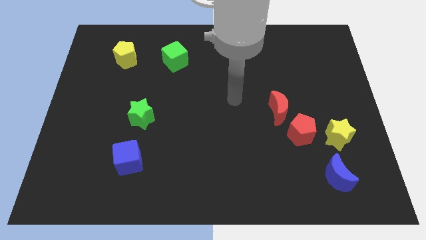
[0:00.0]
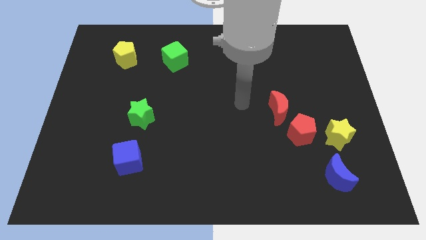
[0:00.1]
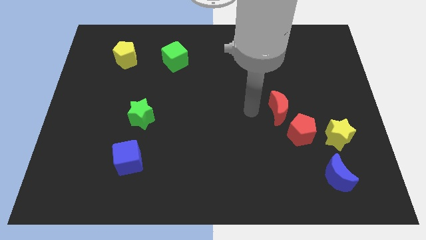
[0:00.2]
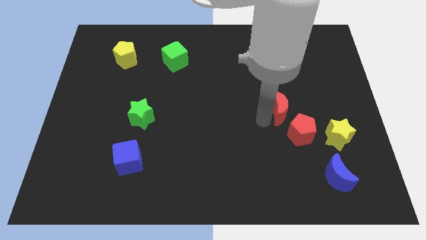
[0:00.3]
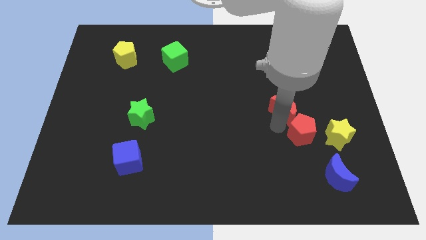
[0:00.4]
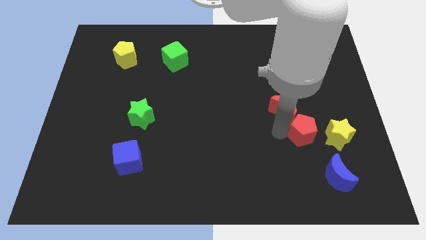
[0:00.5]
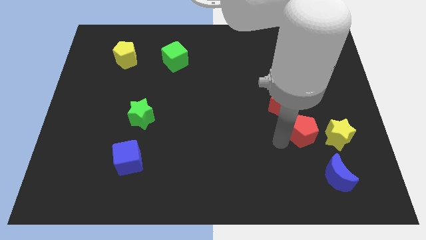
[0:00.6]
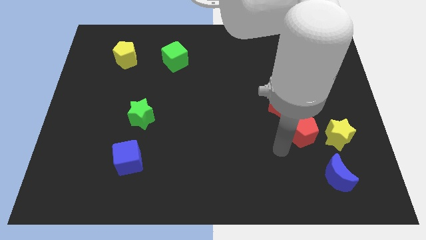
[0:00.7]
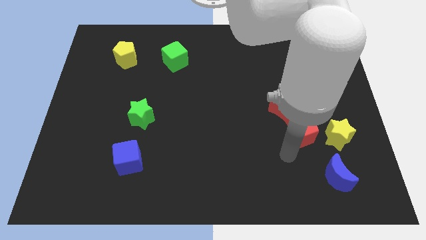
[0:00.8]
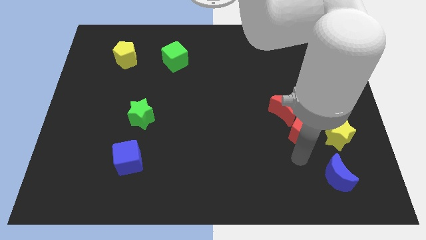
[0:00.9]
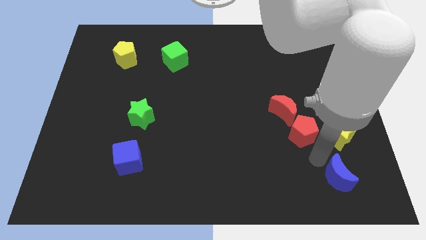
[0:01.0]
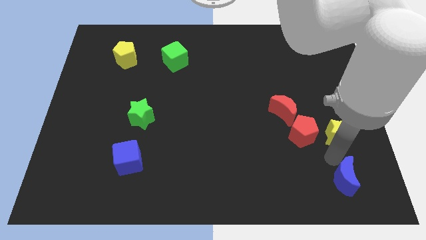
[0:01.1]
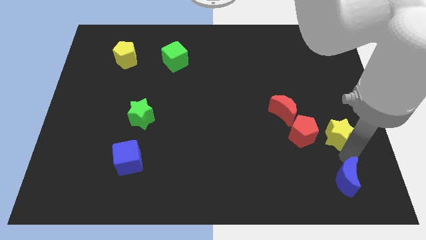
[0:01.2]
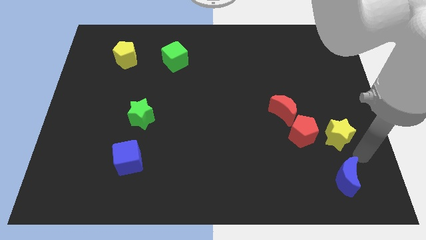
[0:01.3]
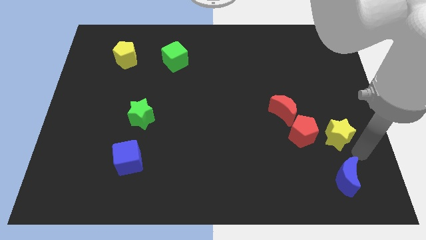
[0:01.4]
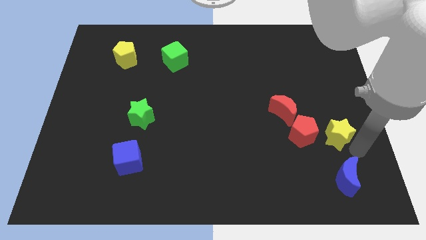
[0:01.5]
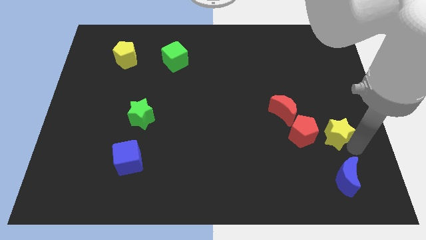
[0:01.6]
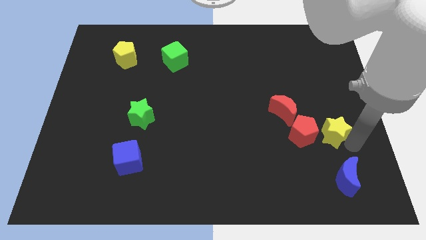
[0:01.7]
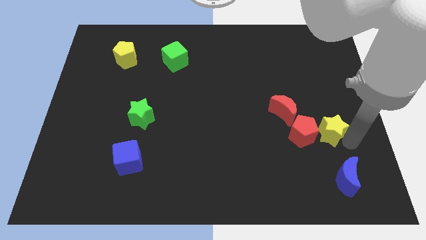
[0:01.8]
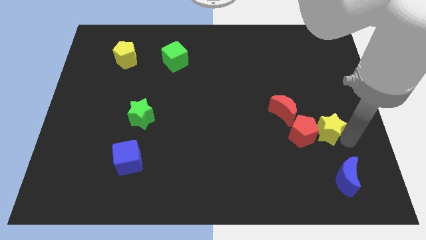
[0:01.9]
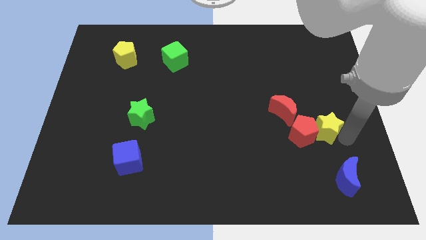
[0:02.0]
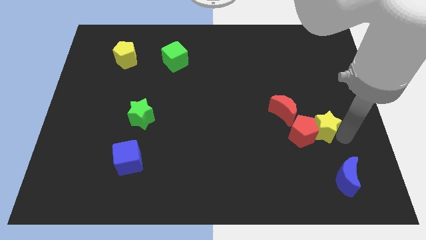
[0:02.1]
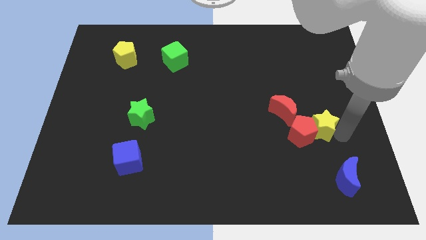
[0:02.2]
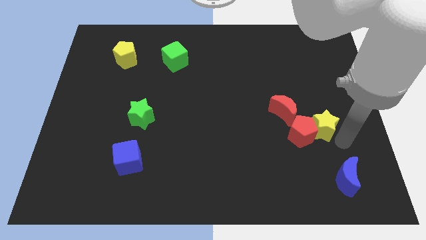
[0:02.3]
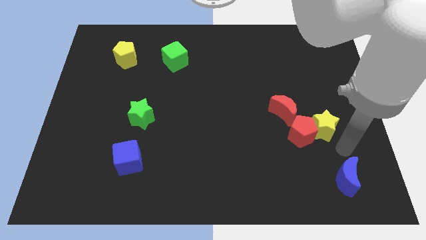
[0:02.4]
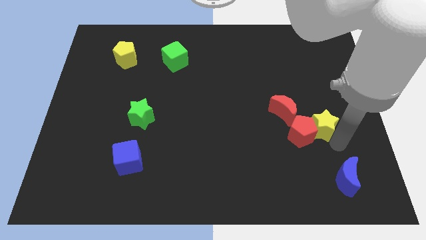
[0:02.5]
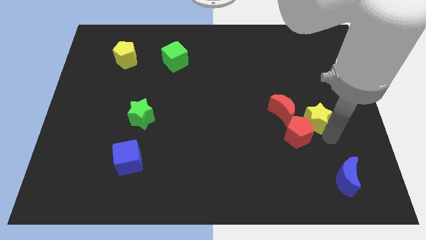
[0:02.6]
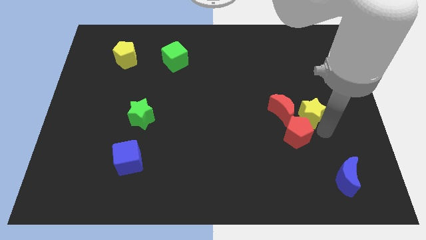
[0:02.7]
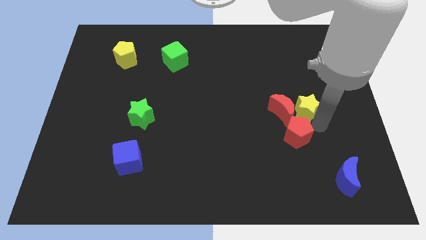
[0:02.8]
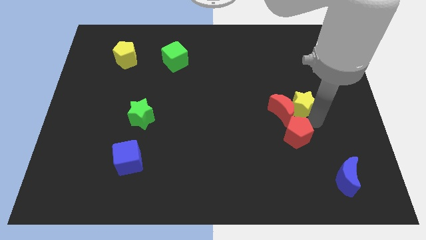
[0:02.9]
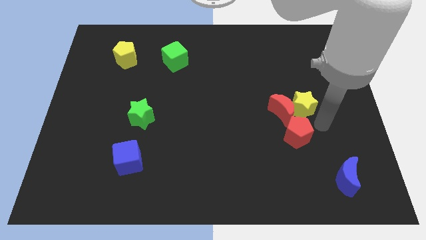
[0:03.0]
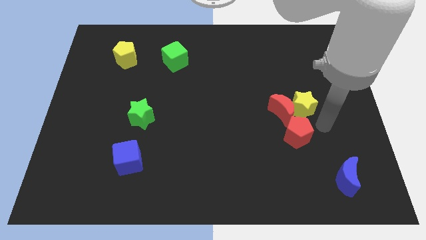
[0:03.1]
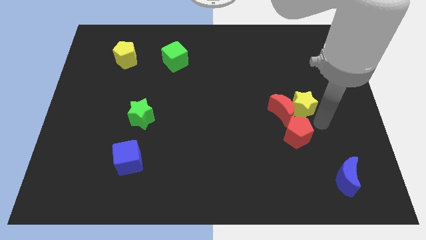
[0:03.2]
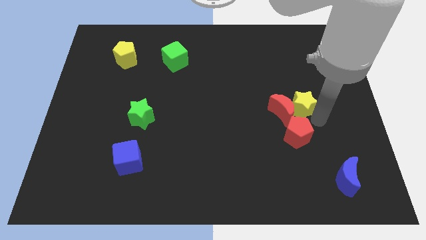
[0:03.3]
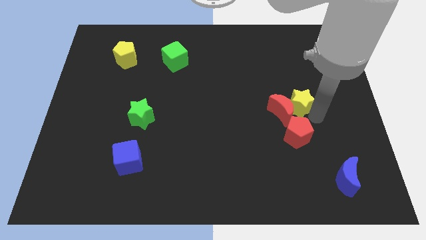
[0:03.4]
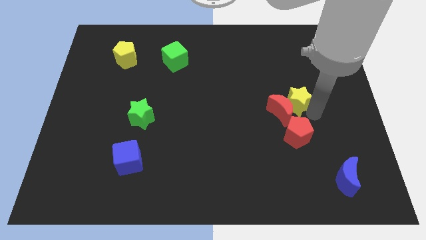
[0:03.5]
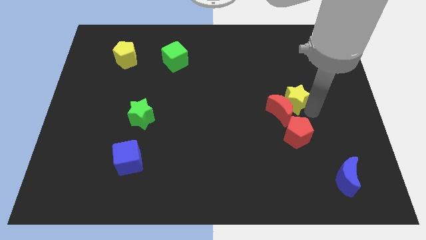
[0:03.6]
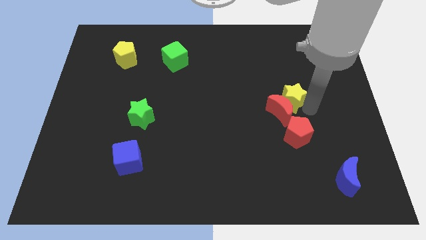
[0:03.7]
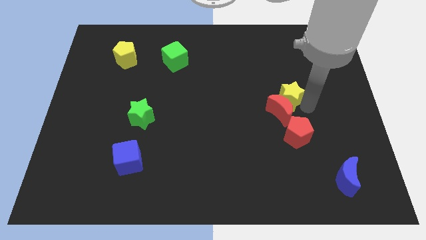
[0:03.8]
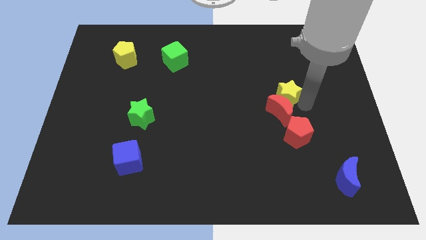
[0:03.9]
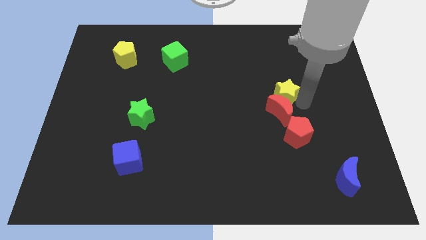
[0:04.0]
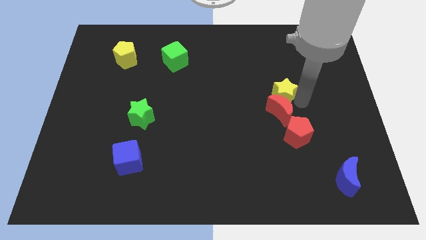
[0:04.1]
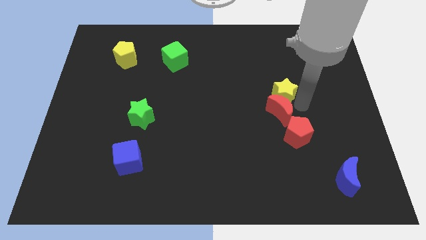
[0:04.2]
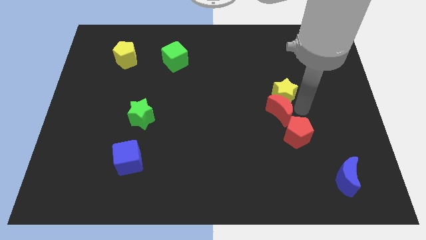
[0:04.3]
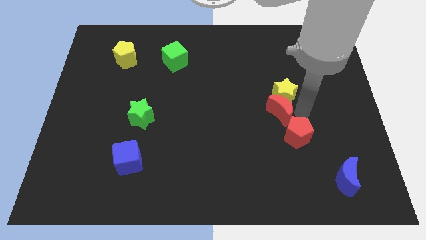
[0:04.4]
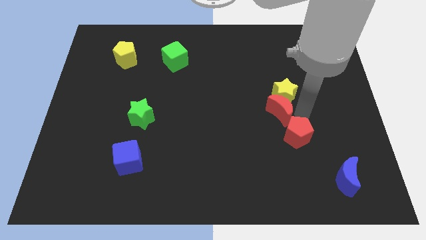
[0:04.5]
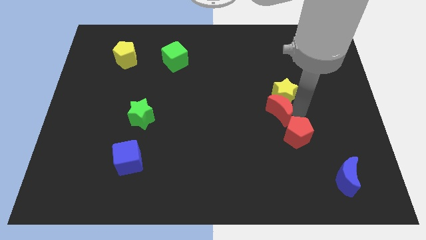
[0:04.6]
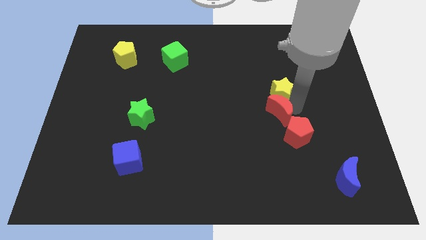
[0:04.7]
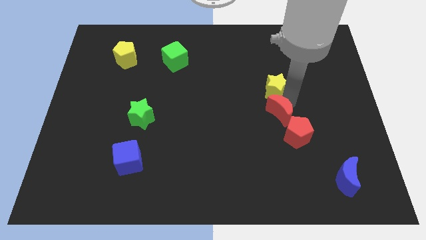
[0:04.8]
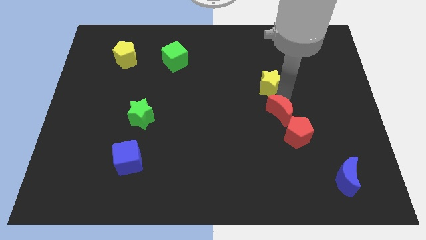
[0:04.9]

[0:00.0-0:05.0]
slide the yellow star up and then left

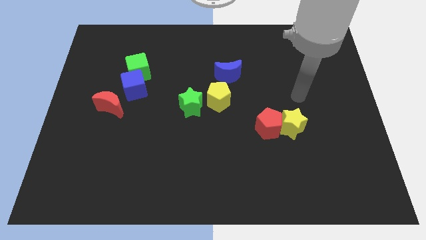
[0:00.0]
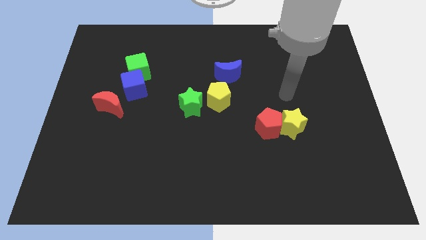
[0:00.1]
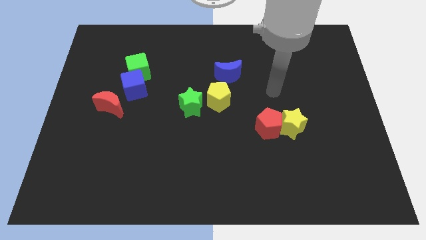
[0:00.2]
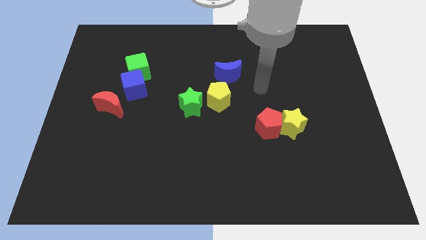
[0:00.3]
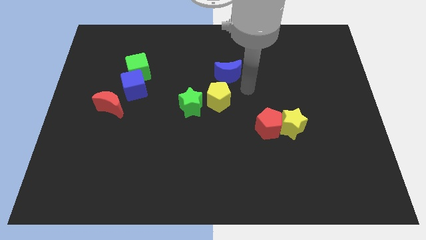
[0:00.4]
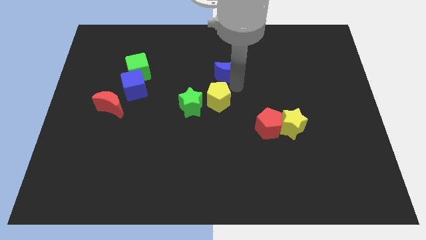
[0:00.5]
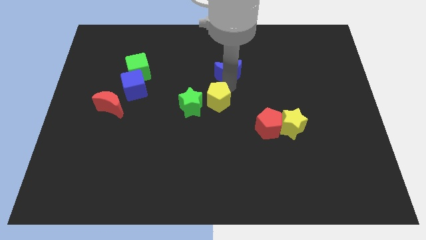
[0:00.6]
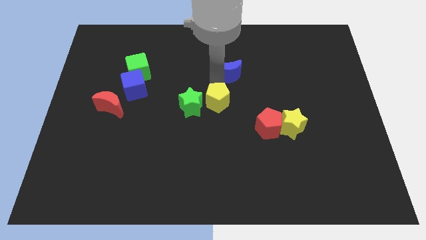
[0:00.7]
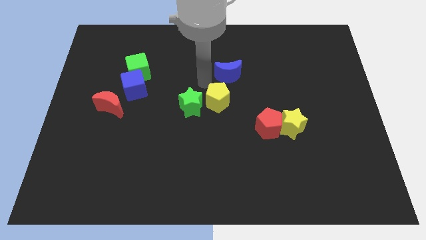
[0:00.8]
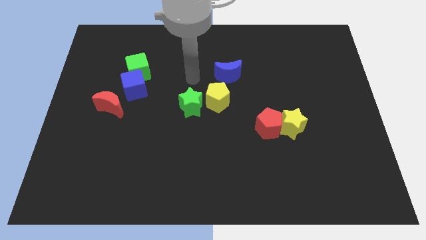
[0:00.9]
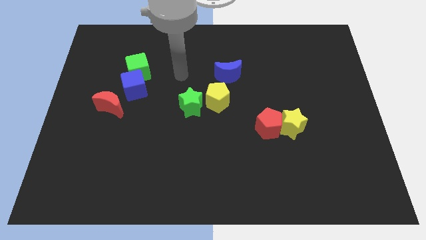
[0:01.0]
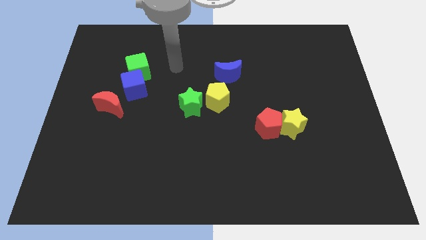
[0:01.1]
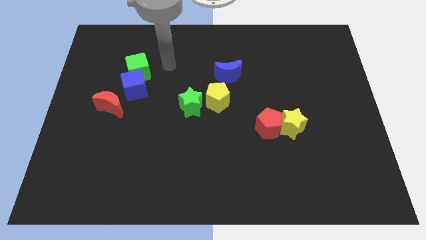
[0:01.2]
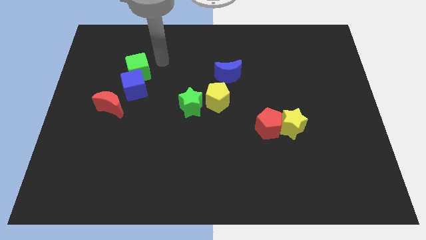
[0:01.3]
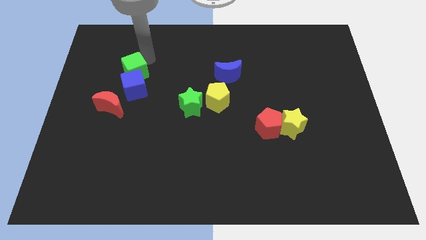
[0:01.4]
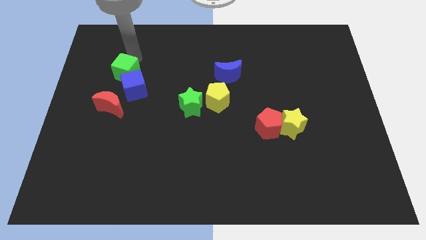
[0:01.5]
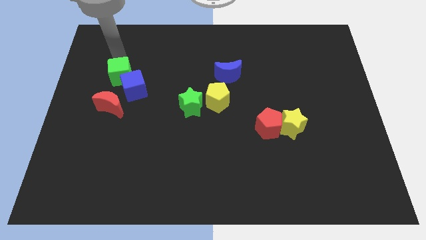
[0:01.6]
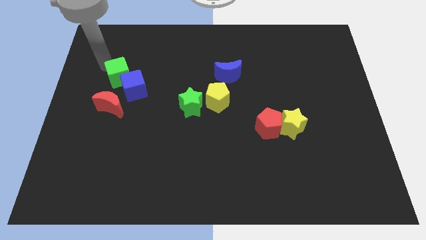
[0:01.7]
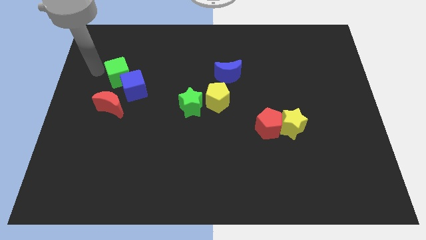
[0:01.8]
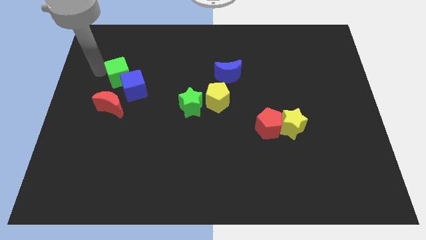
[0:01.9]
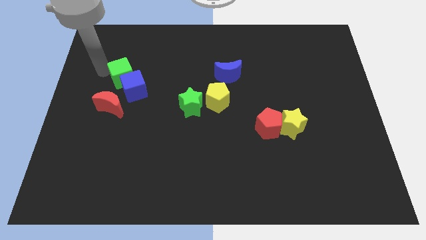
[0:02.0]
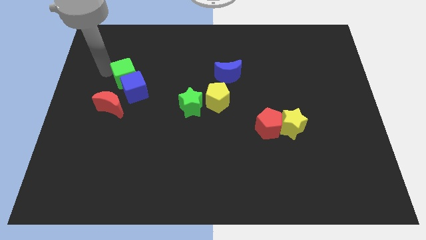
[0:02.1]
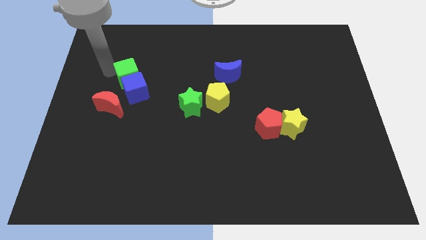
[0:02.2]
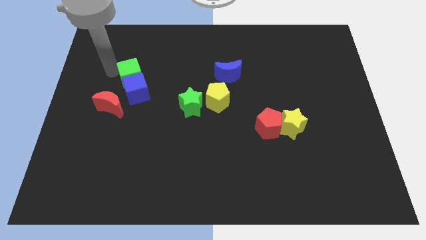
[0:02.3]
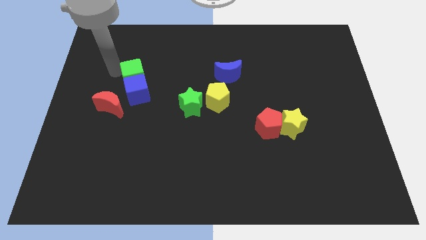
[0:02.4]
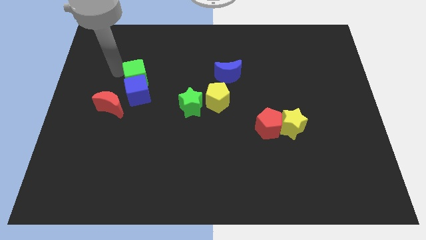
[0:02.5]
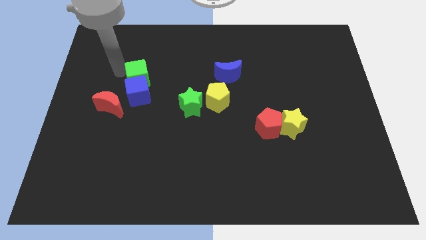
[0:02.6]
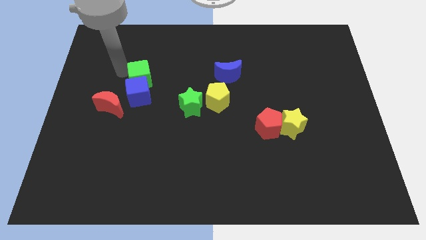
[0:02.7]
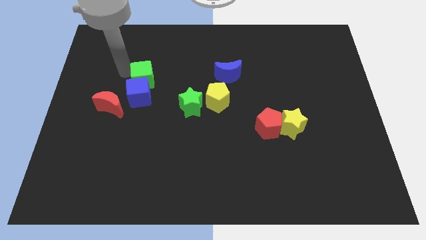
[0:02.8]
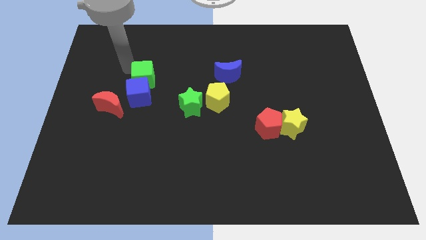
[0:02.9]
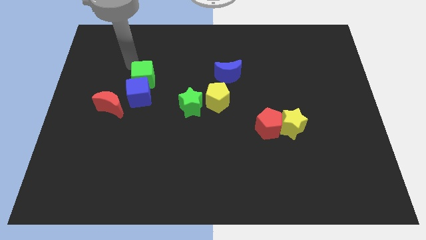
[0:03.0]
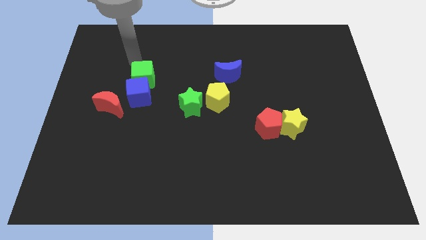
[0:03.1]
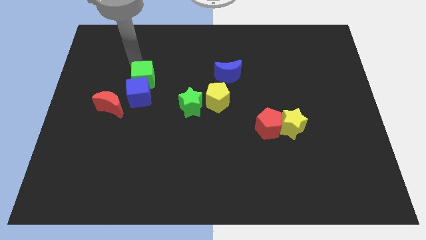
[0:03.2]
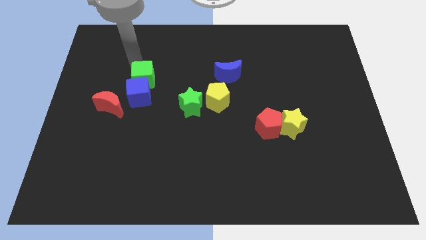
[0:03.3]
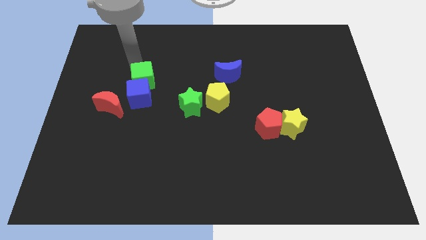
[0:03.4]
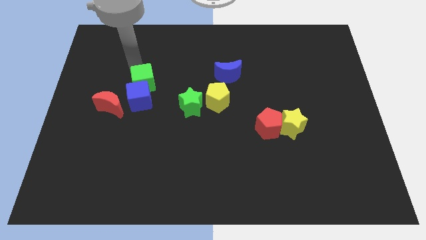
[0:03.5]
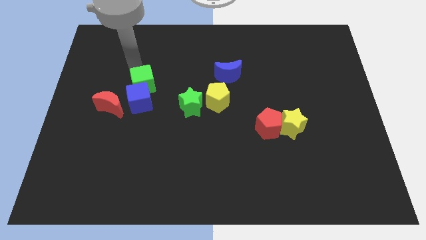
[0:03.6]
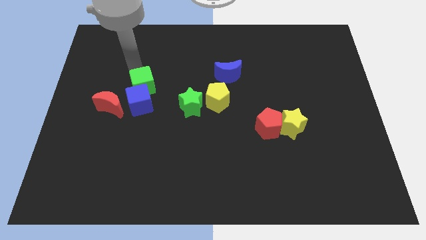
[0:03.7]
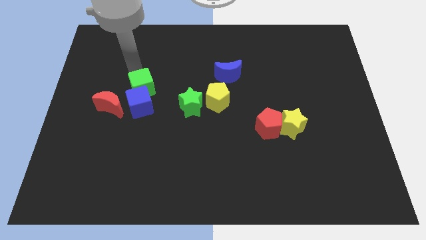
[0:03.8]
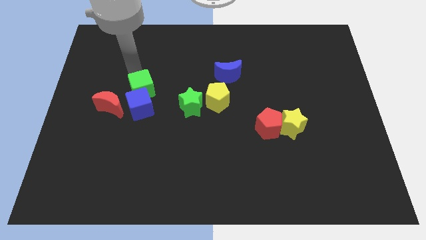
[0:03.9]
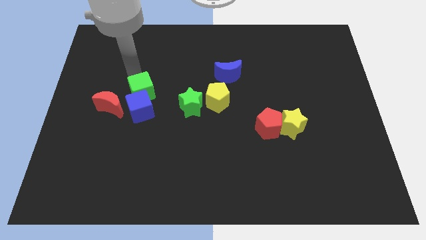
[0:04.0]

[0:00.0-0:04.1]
move the green cube a little bit downwards
